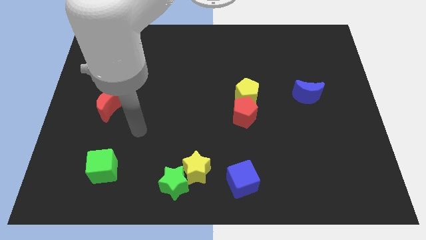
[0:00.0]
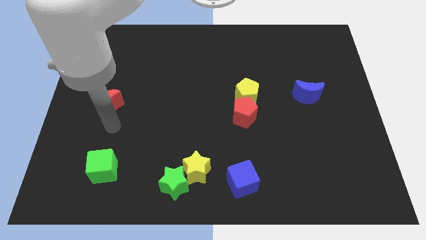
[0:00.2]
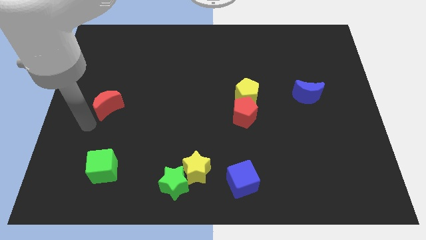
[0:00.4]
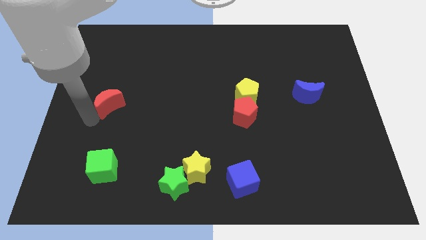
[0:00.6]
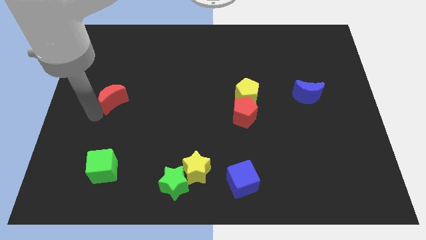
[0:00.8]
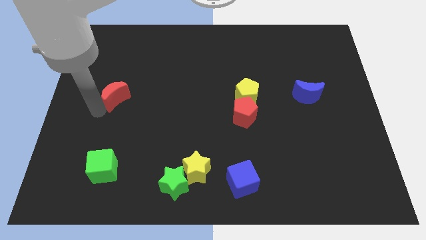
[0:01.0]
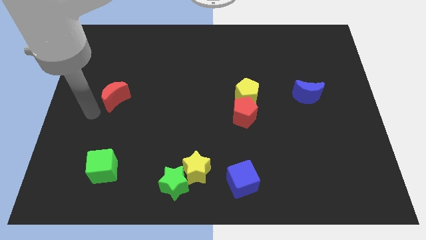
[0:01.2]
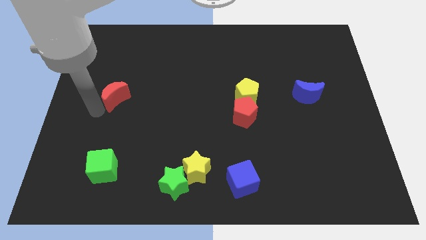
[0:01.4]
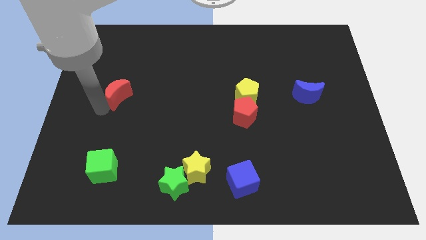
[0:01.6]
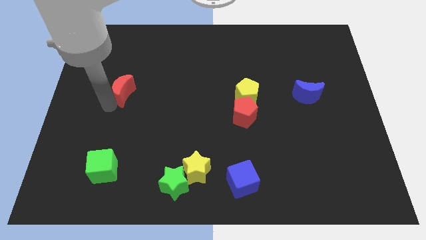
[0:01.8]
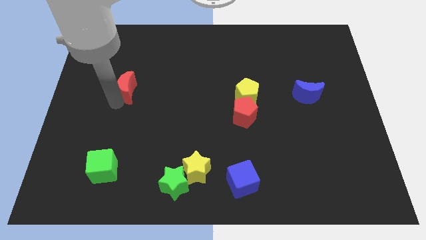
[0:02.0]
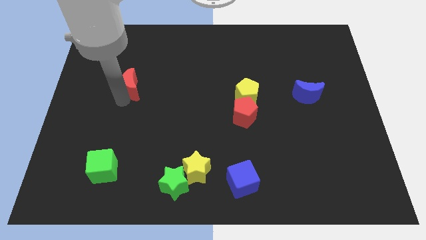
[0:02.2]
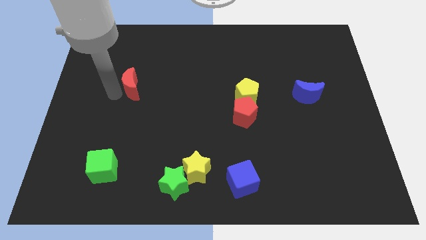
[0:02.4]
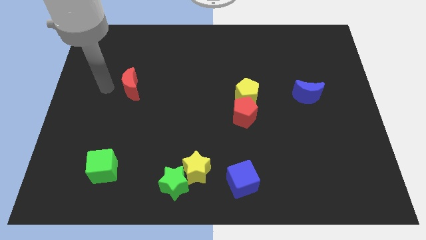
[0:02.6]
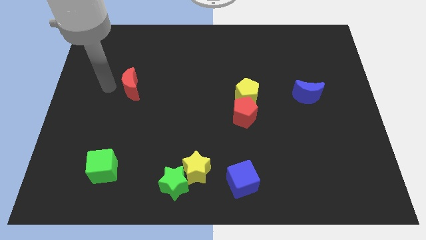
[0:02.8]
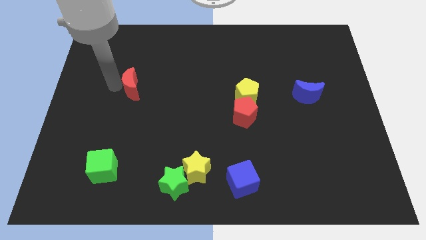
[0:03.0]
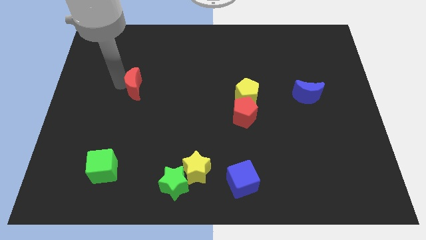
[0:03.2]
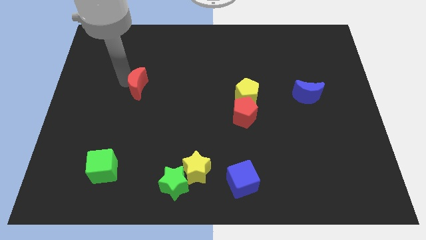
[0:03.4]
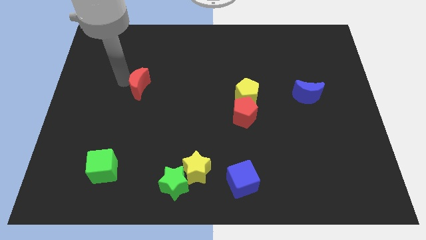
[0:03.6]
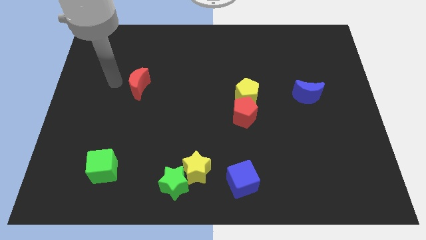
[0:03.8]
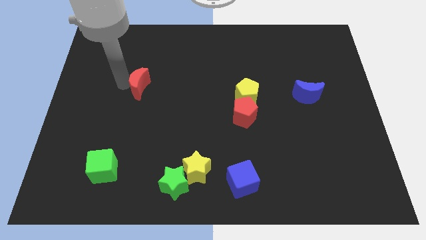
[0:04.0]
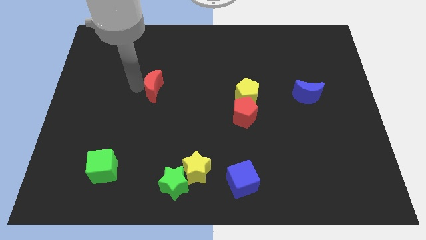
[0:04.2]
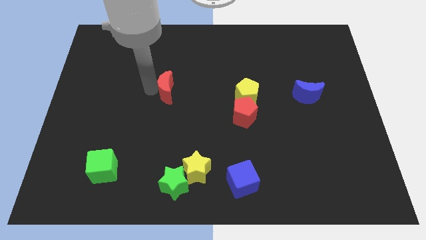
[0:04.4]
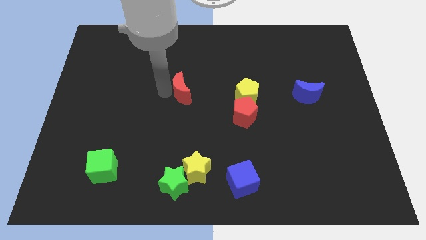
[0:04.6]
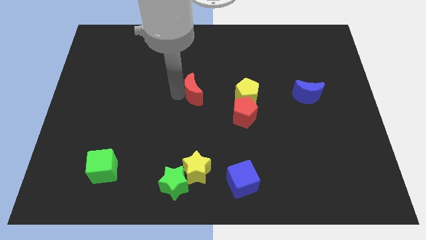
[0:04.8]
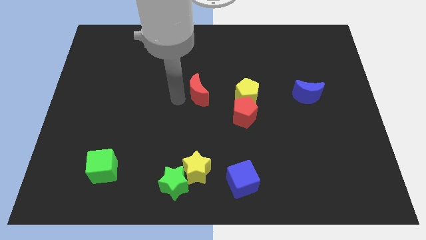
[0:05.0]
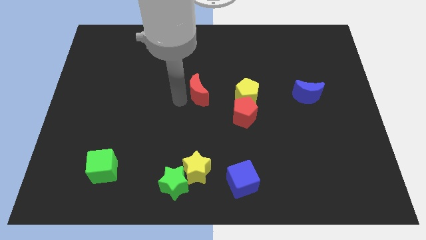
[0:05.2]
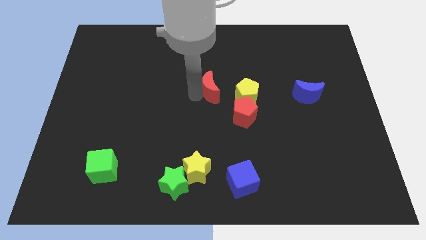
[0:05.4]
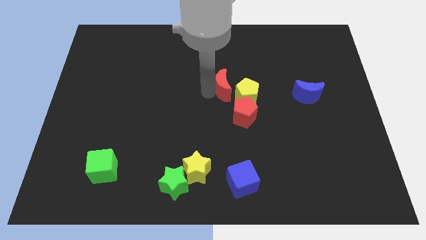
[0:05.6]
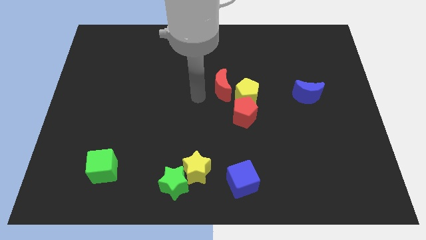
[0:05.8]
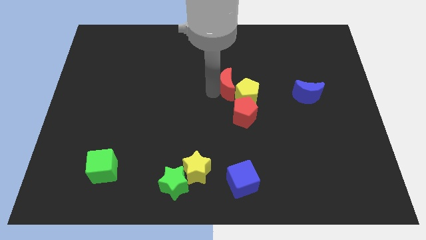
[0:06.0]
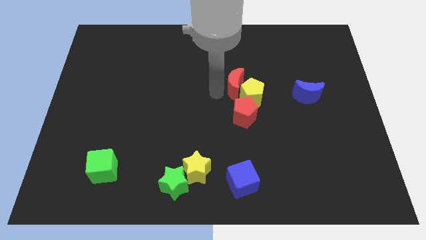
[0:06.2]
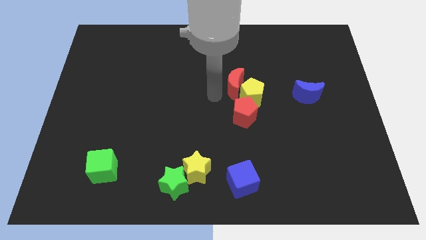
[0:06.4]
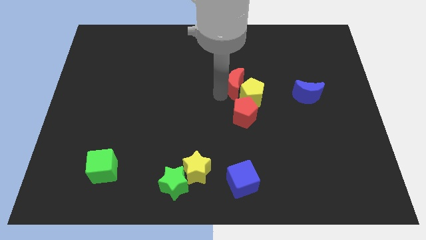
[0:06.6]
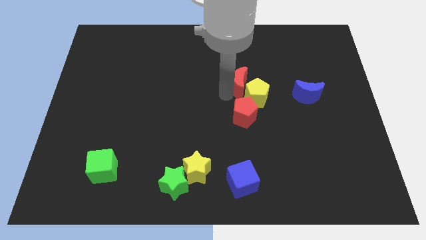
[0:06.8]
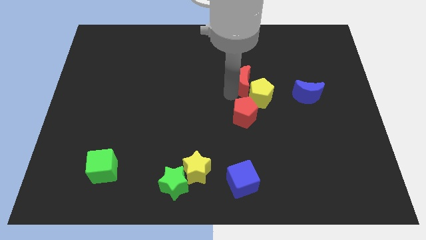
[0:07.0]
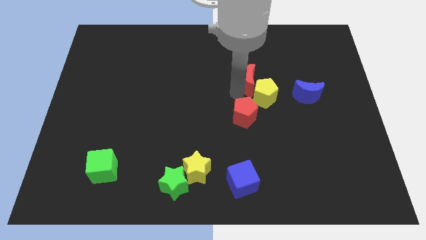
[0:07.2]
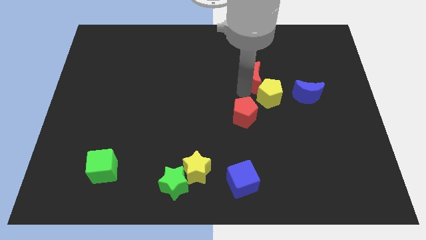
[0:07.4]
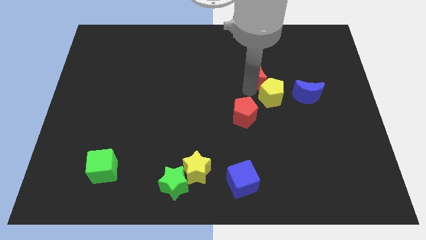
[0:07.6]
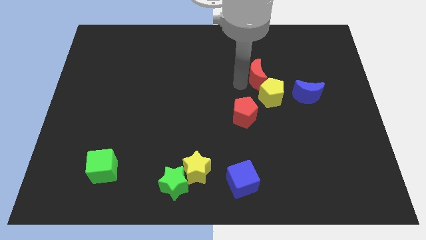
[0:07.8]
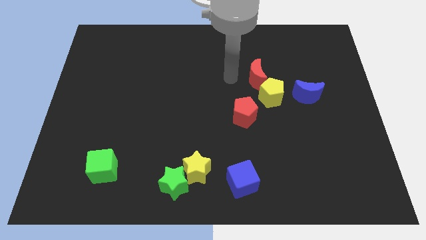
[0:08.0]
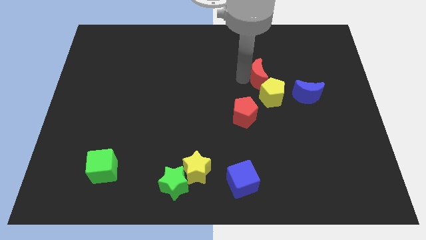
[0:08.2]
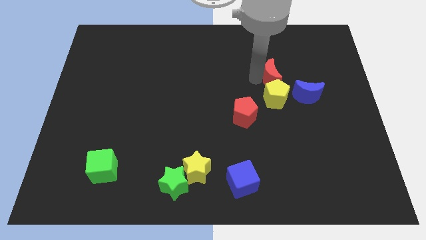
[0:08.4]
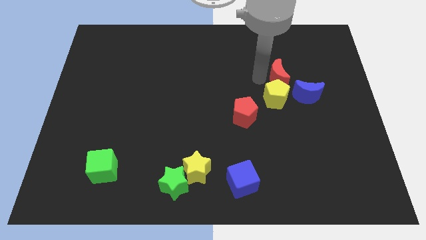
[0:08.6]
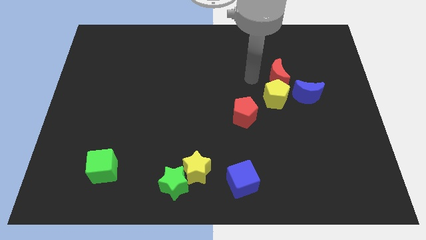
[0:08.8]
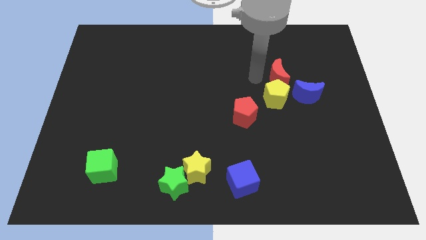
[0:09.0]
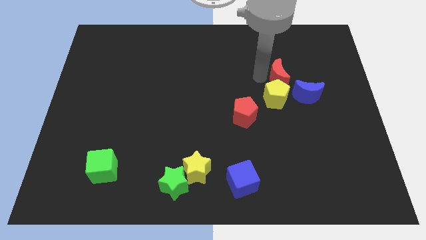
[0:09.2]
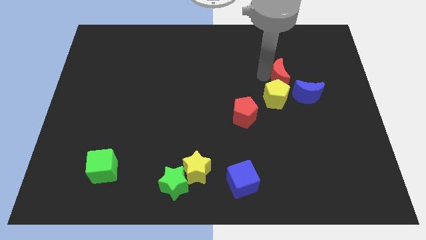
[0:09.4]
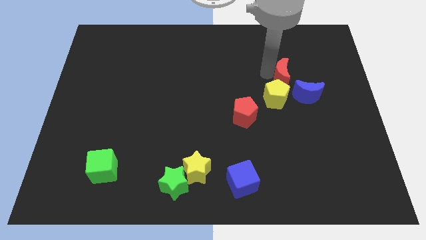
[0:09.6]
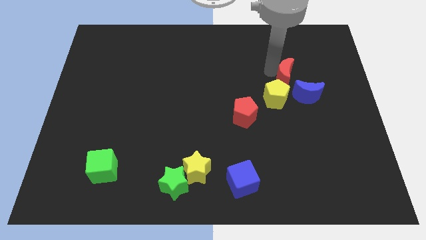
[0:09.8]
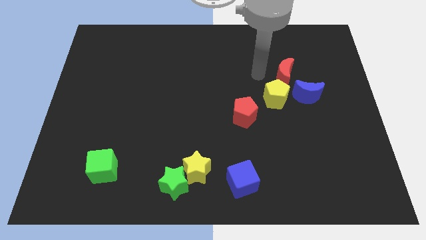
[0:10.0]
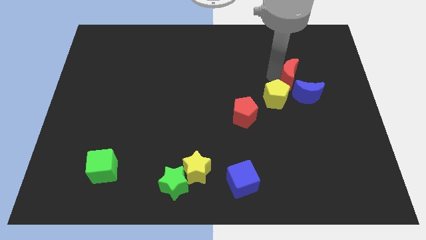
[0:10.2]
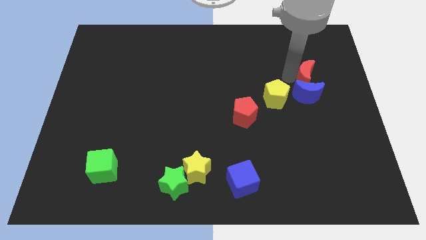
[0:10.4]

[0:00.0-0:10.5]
move the red moon diagonally up and to the right of the blue moon

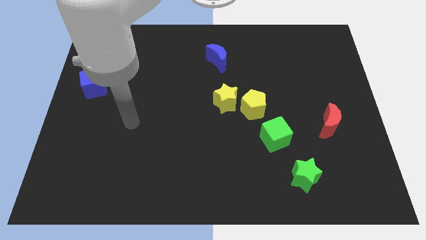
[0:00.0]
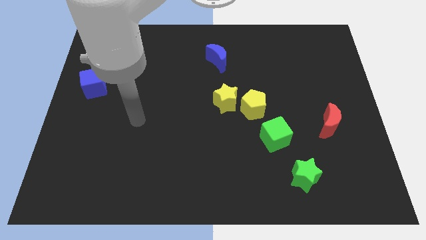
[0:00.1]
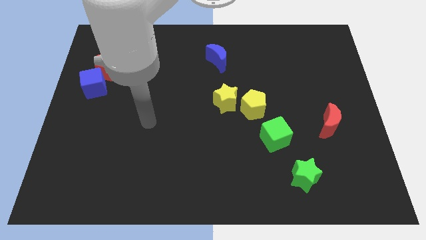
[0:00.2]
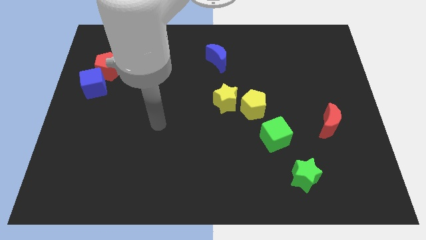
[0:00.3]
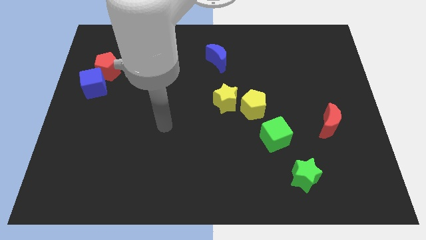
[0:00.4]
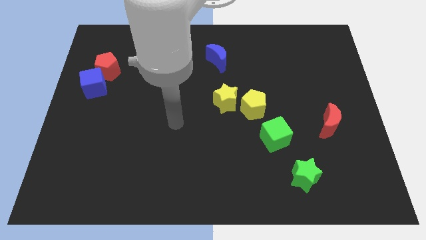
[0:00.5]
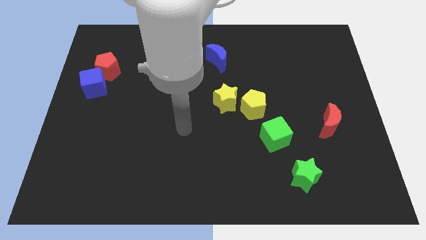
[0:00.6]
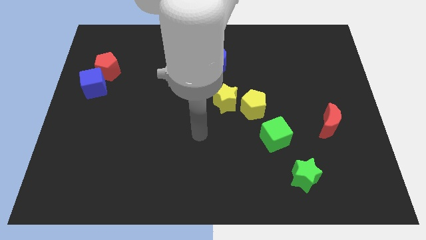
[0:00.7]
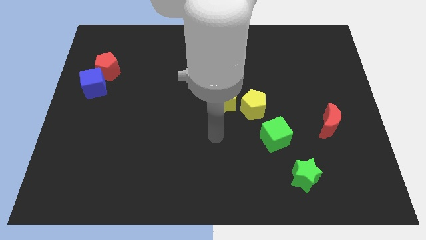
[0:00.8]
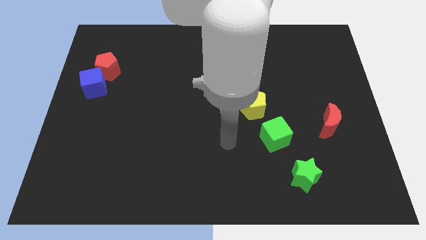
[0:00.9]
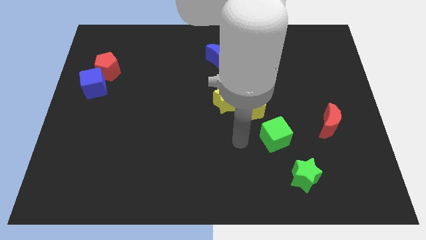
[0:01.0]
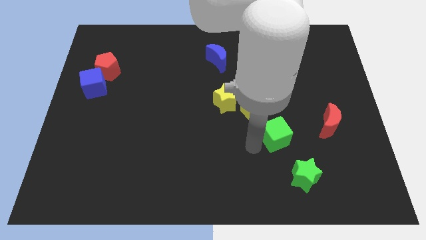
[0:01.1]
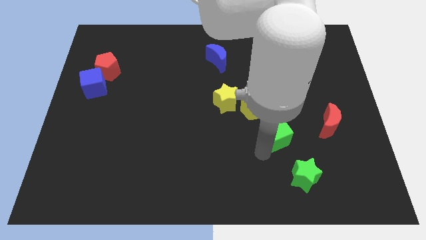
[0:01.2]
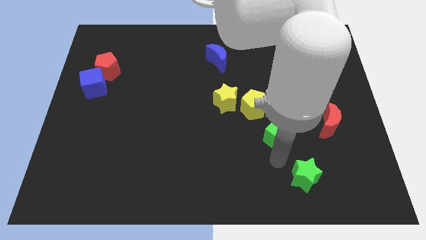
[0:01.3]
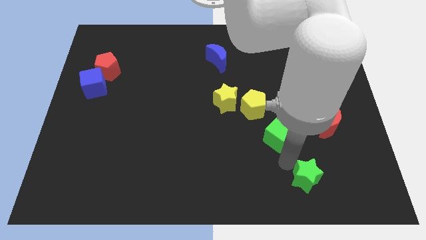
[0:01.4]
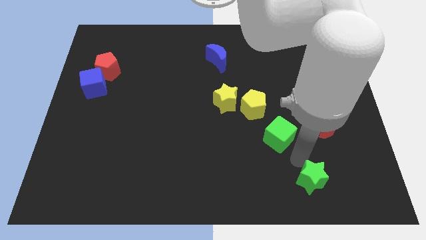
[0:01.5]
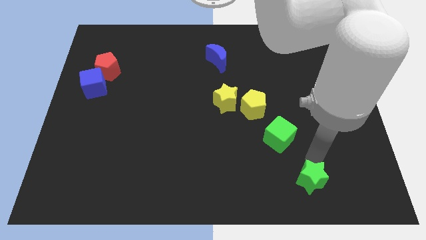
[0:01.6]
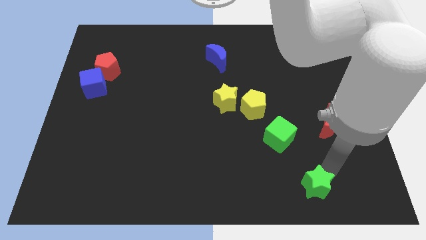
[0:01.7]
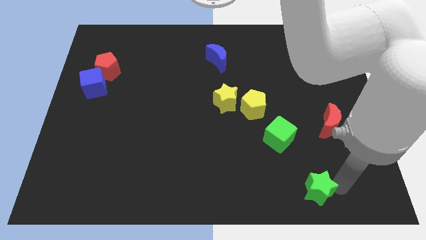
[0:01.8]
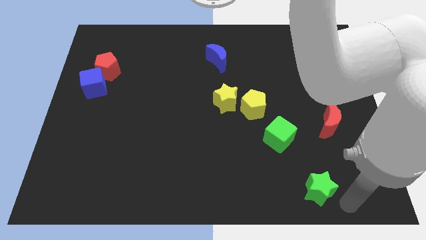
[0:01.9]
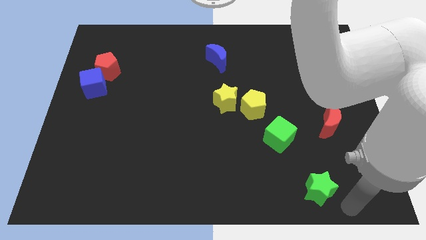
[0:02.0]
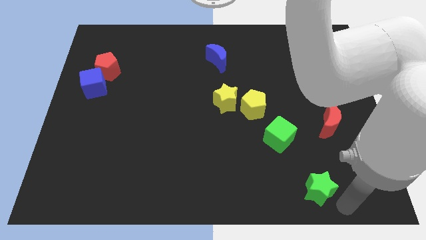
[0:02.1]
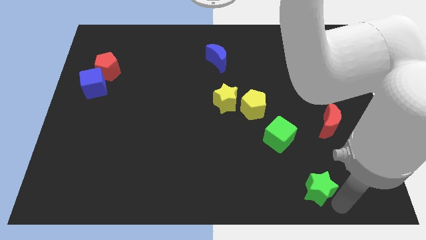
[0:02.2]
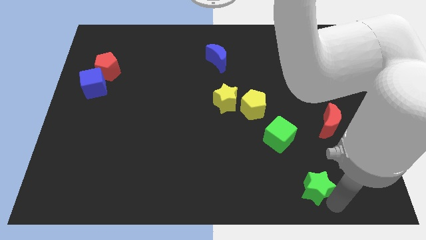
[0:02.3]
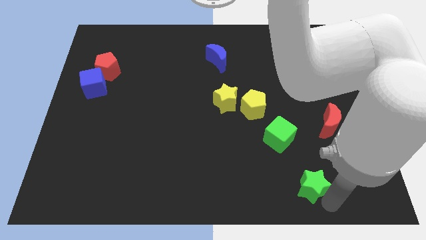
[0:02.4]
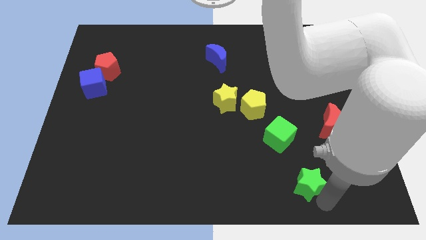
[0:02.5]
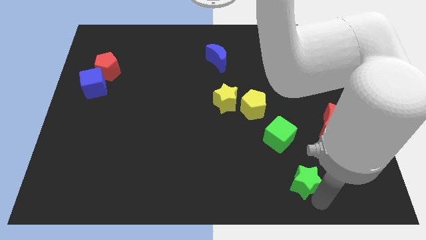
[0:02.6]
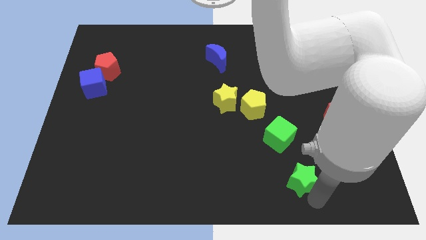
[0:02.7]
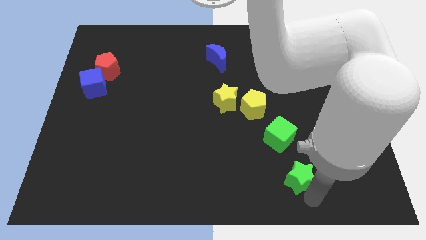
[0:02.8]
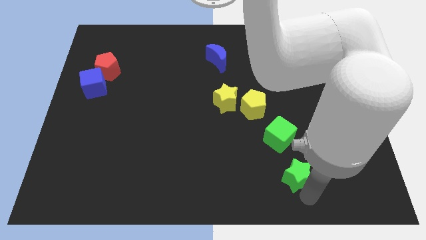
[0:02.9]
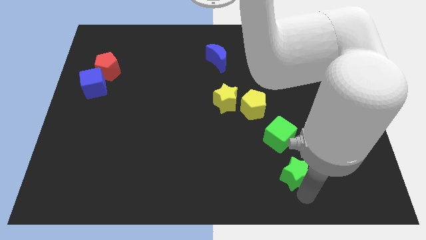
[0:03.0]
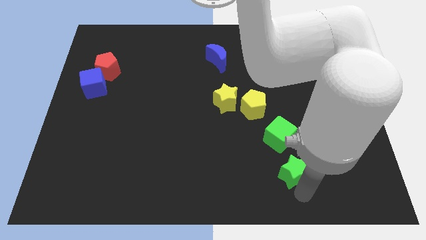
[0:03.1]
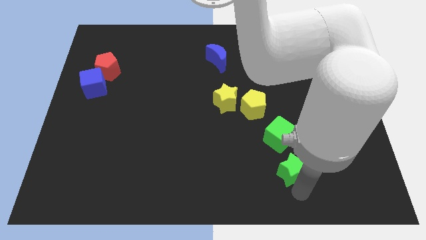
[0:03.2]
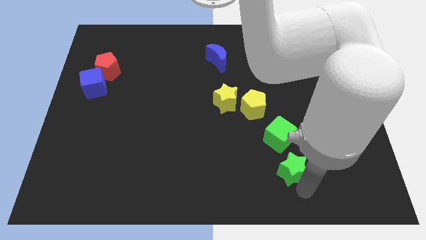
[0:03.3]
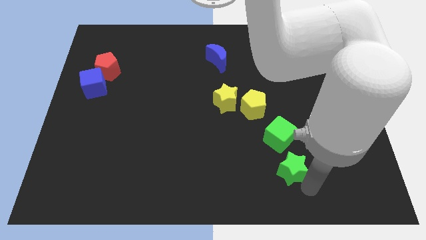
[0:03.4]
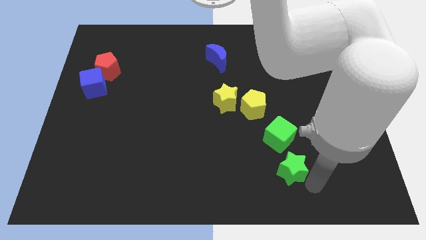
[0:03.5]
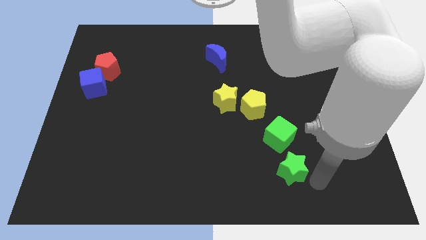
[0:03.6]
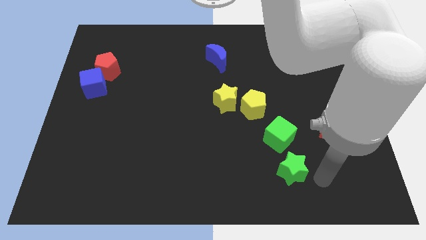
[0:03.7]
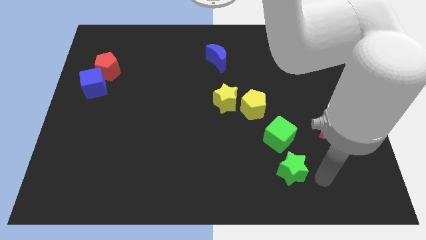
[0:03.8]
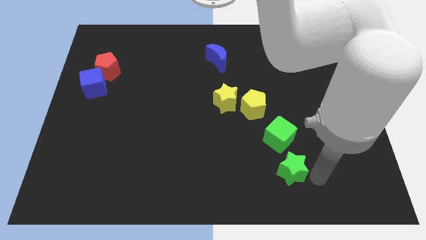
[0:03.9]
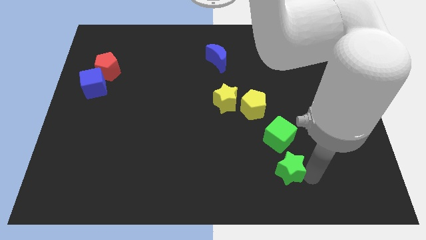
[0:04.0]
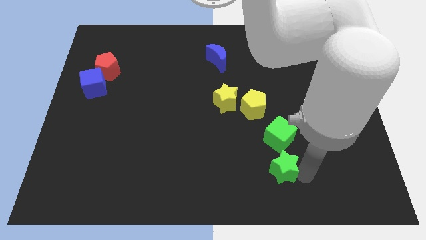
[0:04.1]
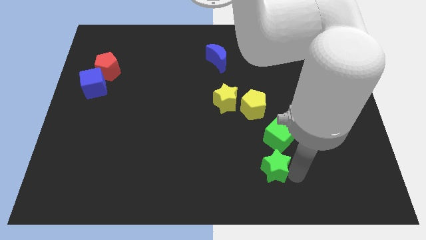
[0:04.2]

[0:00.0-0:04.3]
slide the green star to the bottom left of the green cube
